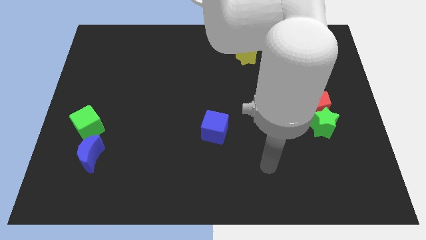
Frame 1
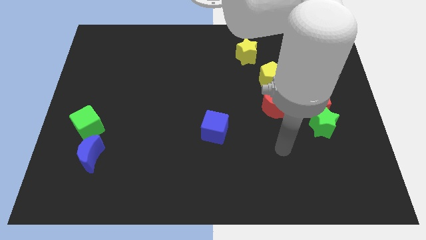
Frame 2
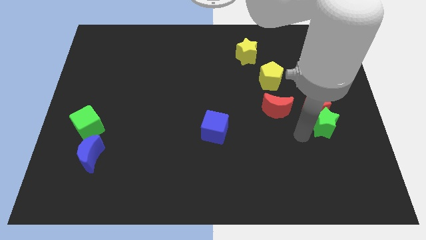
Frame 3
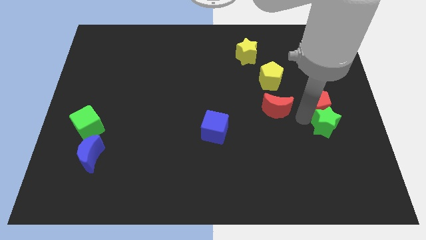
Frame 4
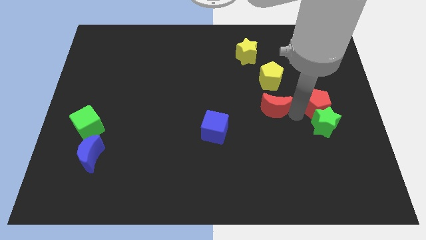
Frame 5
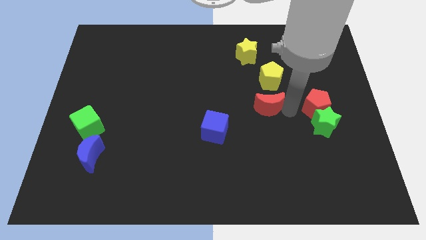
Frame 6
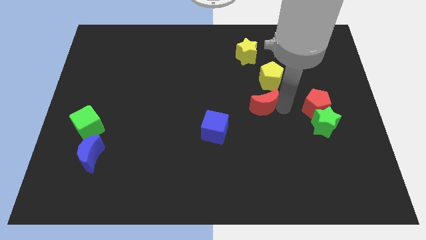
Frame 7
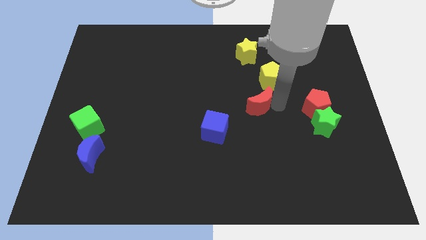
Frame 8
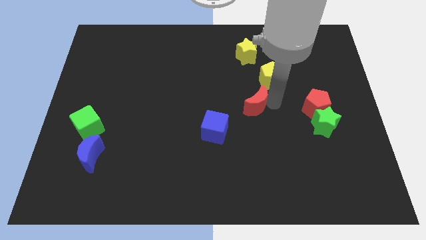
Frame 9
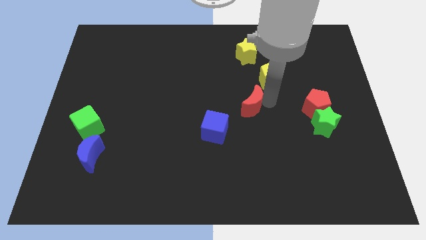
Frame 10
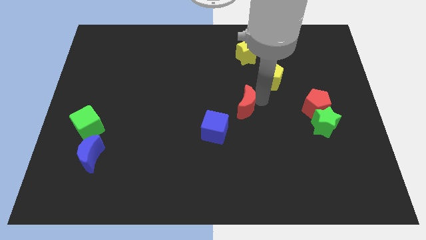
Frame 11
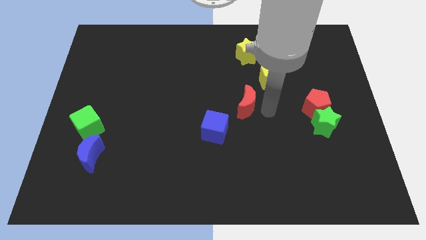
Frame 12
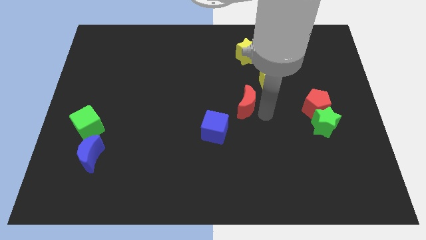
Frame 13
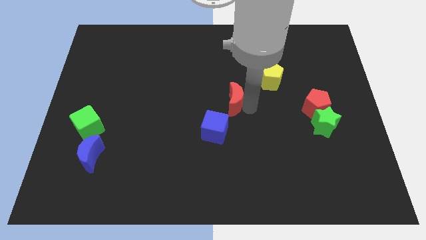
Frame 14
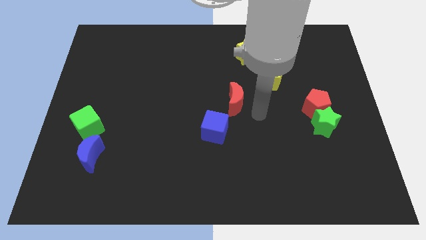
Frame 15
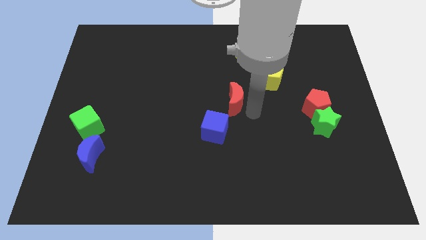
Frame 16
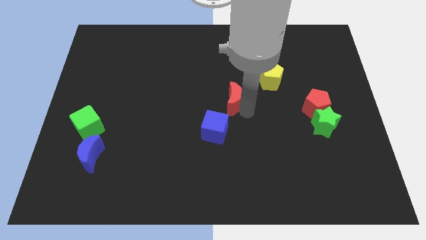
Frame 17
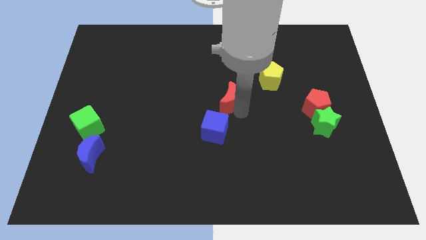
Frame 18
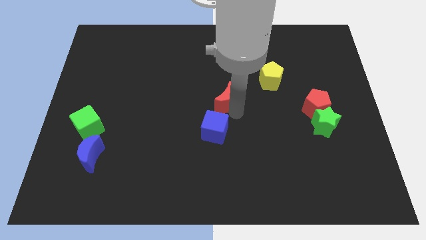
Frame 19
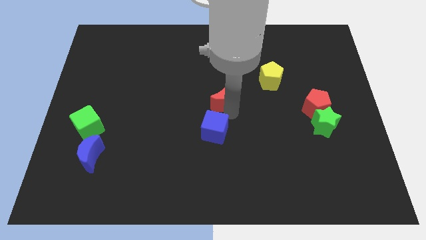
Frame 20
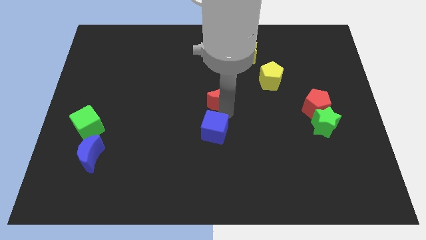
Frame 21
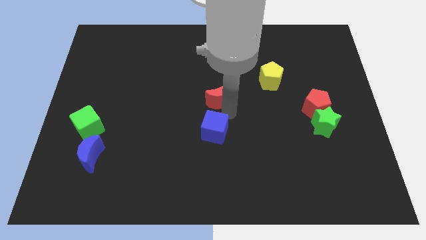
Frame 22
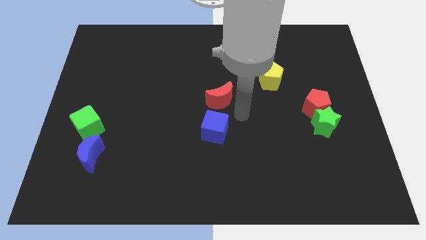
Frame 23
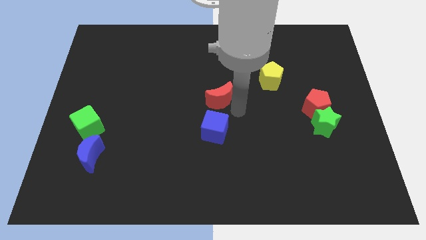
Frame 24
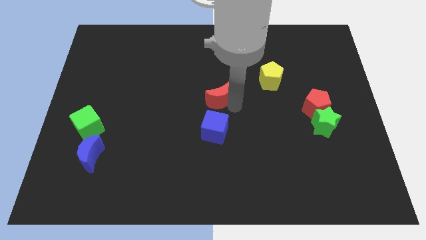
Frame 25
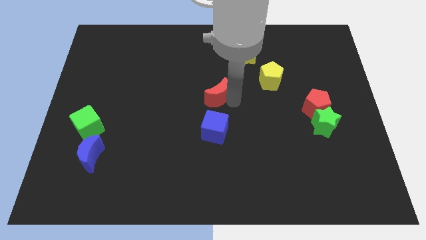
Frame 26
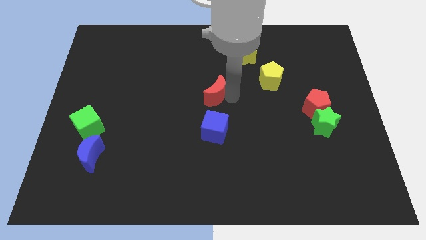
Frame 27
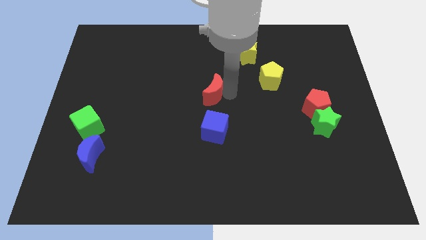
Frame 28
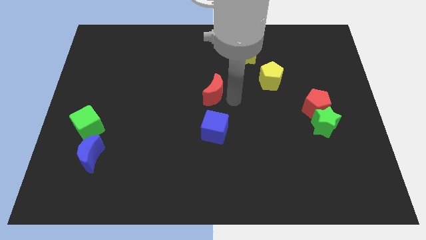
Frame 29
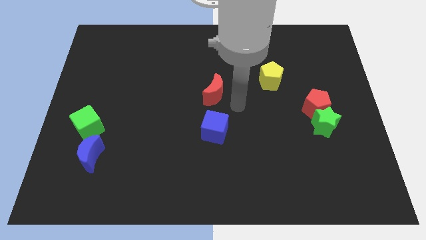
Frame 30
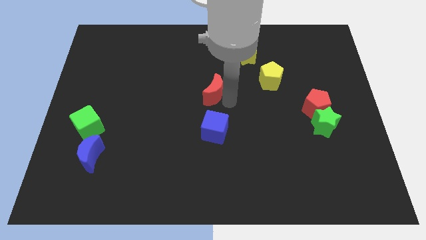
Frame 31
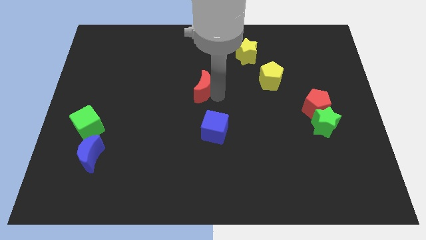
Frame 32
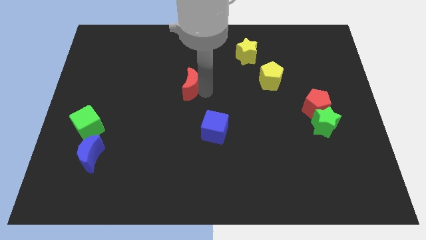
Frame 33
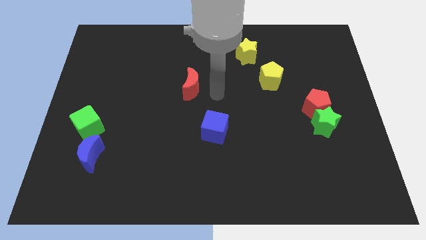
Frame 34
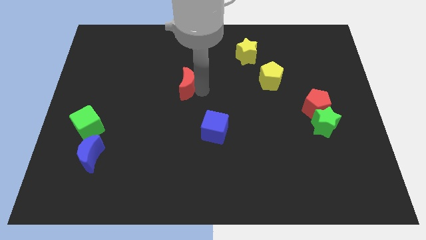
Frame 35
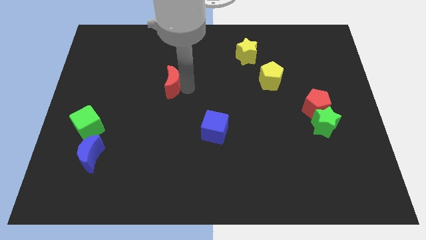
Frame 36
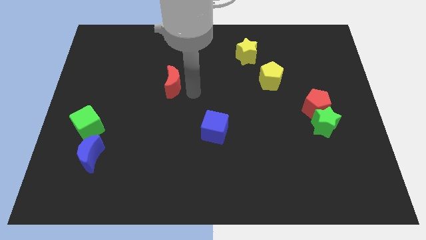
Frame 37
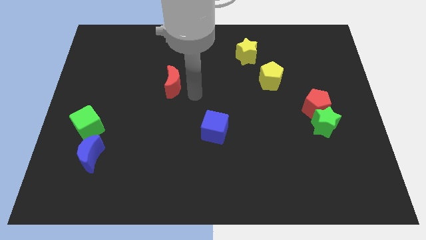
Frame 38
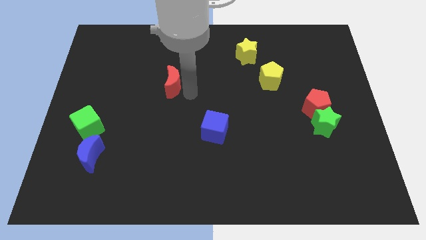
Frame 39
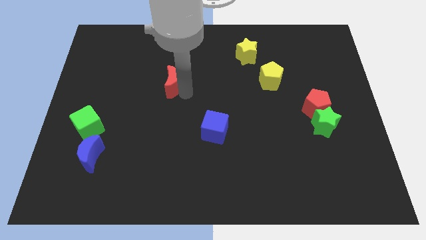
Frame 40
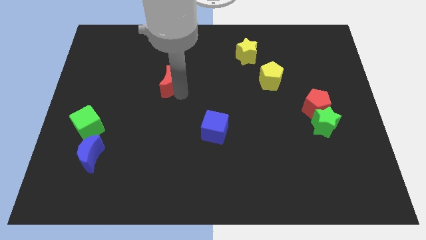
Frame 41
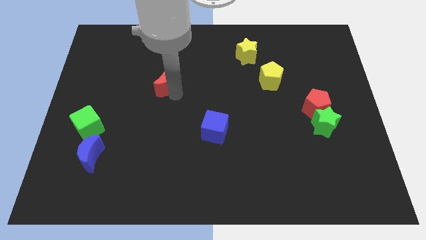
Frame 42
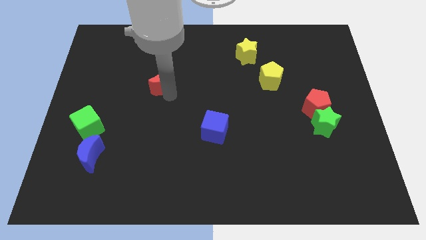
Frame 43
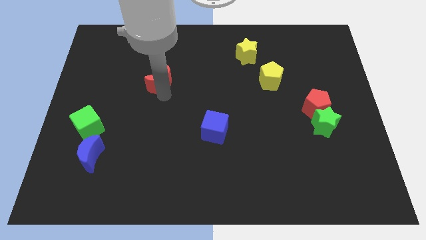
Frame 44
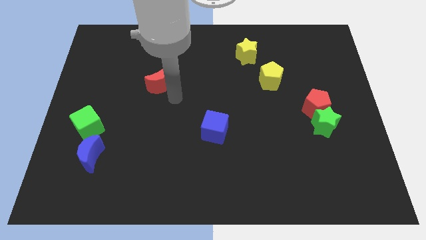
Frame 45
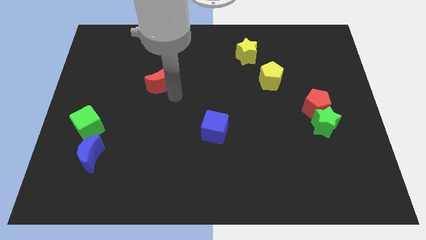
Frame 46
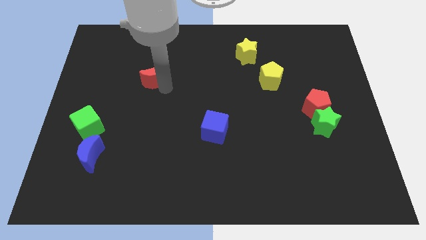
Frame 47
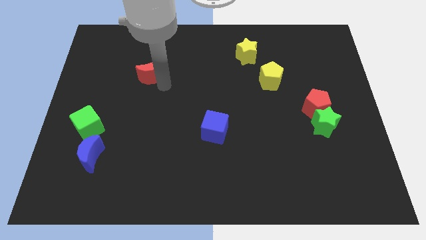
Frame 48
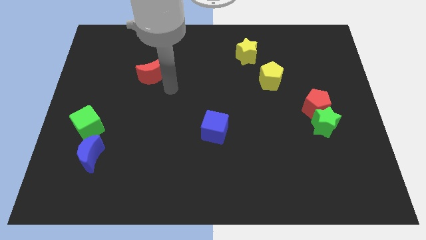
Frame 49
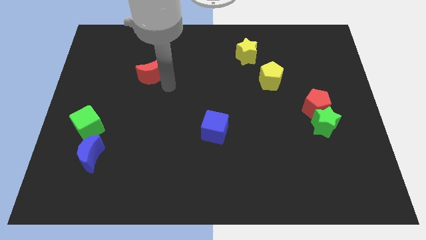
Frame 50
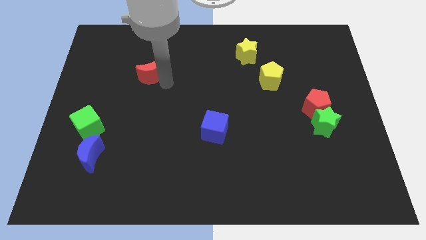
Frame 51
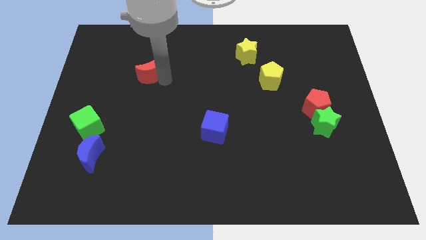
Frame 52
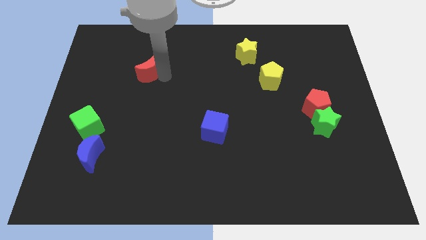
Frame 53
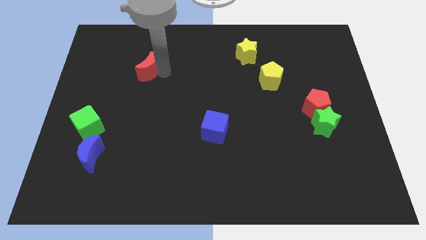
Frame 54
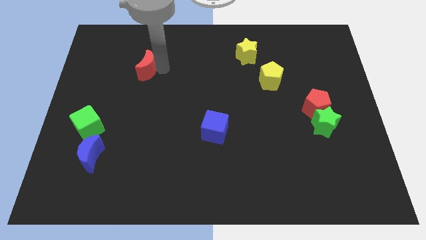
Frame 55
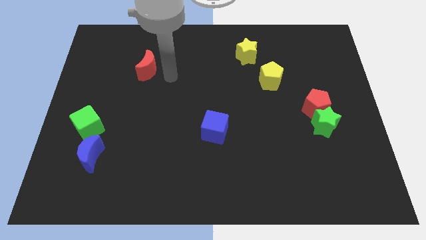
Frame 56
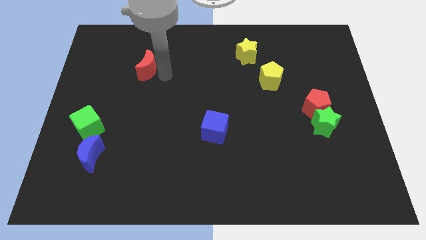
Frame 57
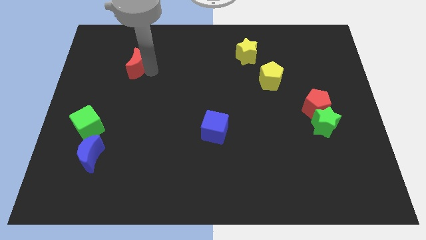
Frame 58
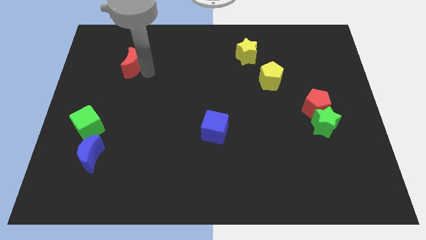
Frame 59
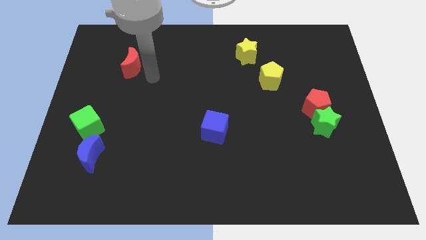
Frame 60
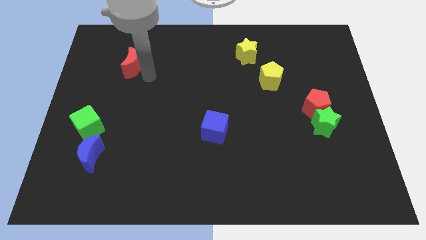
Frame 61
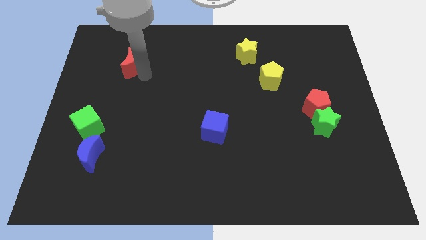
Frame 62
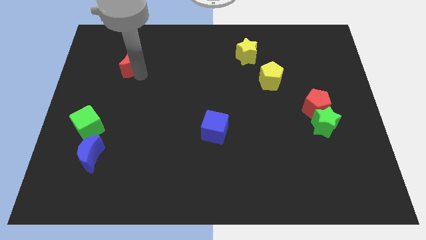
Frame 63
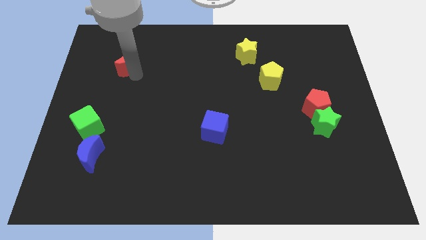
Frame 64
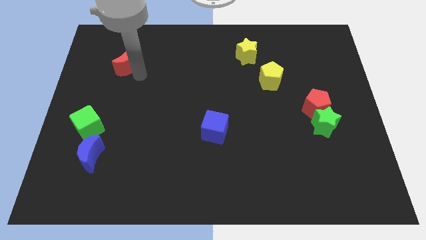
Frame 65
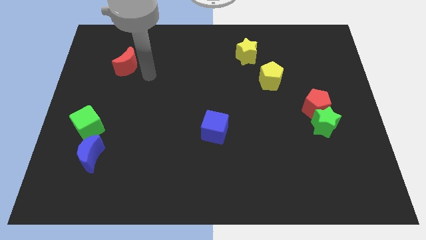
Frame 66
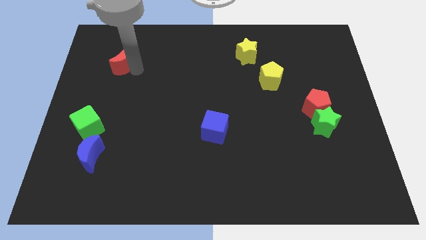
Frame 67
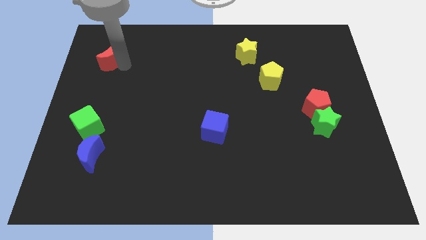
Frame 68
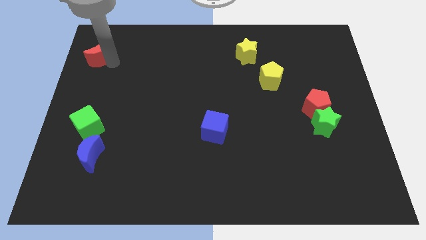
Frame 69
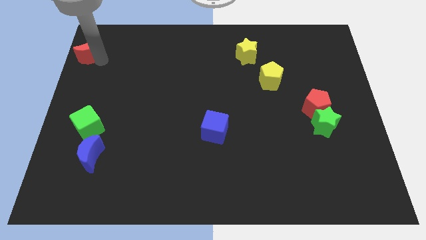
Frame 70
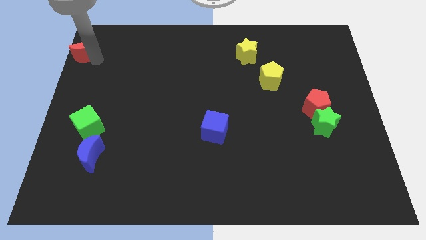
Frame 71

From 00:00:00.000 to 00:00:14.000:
put the red moon to the top left corner
